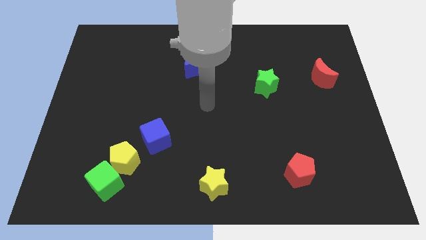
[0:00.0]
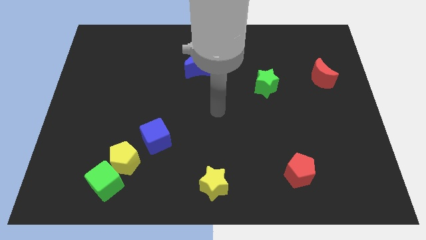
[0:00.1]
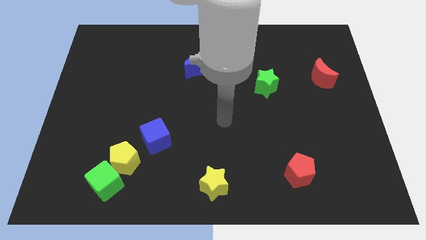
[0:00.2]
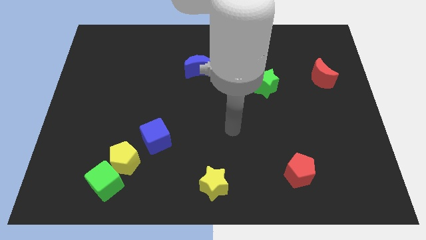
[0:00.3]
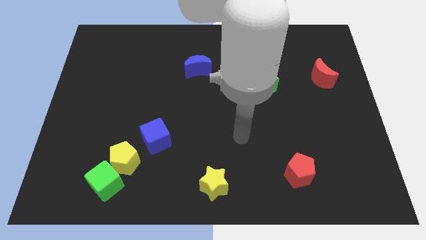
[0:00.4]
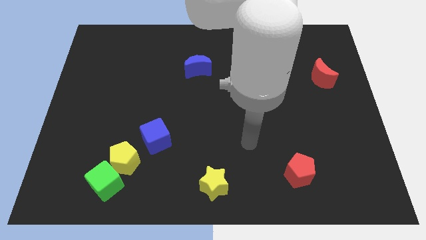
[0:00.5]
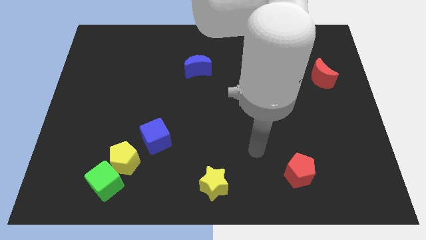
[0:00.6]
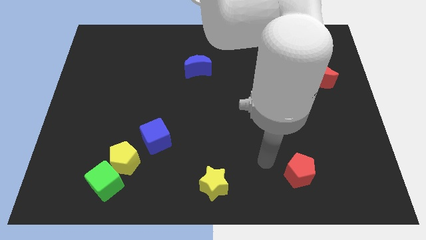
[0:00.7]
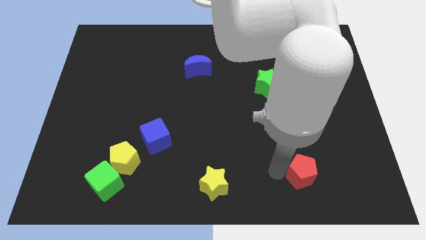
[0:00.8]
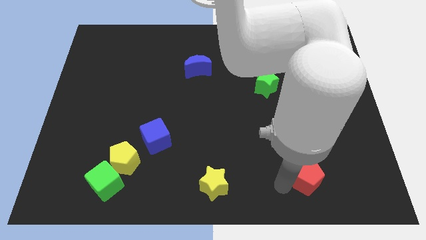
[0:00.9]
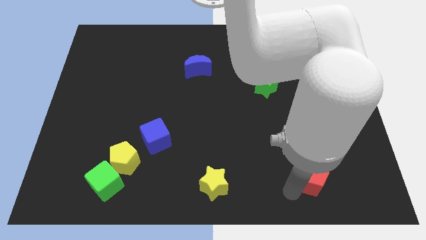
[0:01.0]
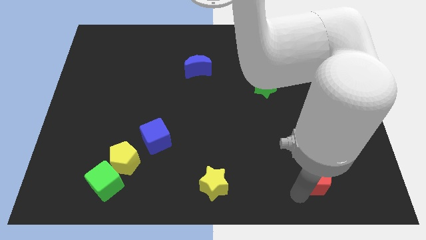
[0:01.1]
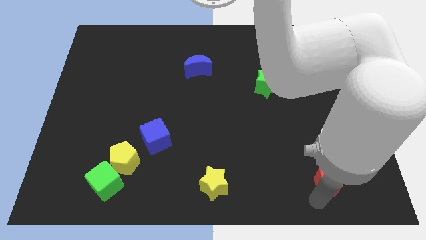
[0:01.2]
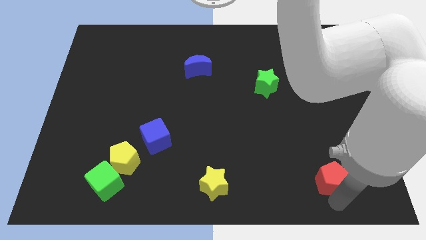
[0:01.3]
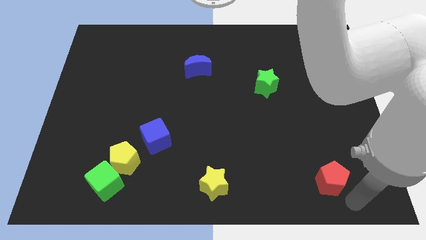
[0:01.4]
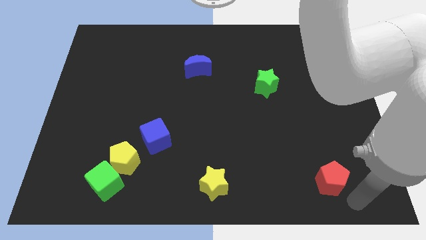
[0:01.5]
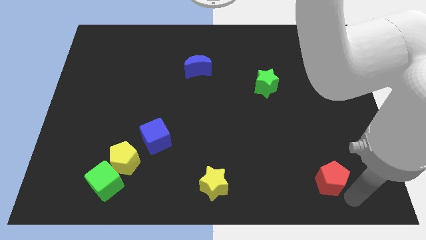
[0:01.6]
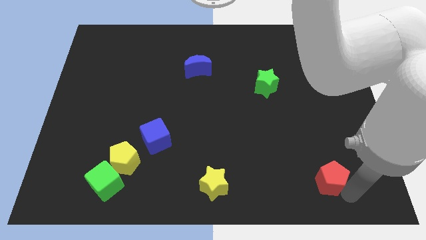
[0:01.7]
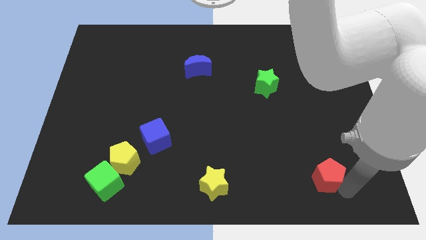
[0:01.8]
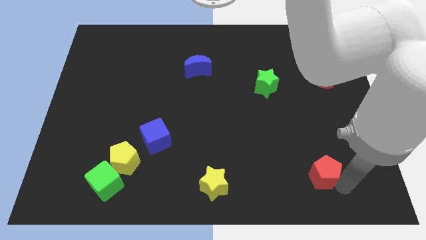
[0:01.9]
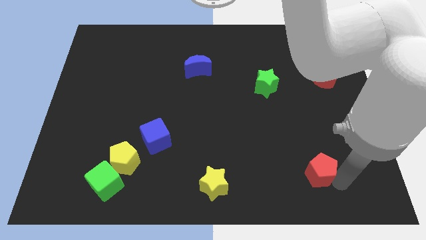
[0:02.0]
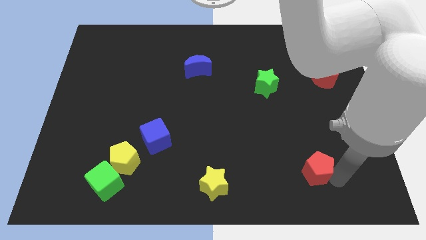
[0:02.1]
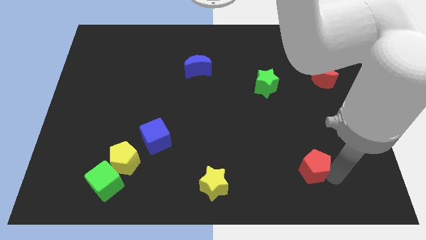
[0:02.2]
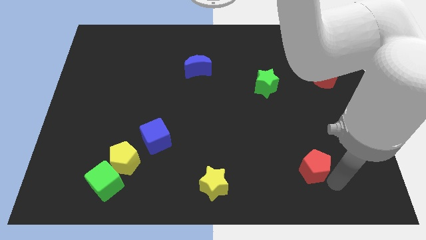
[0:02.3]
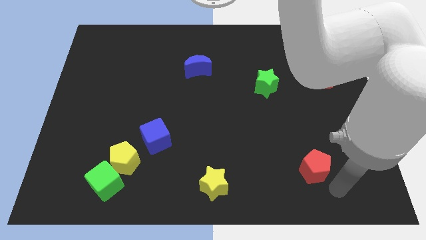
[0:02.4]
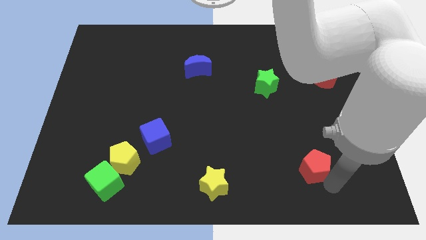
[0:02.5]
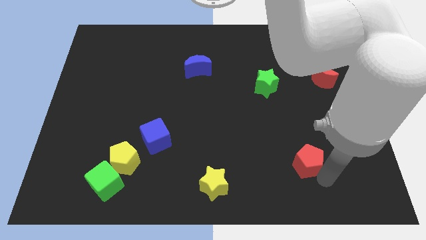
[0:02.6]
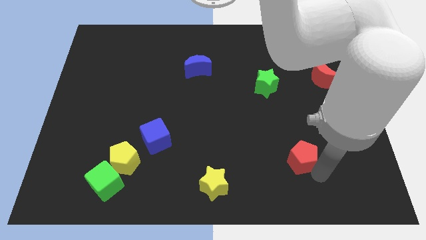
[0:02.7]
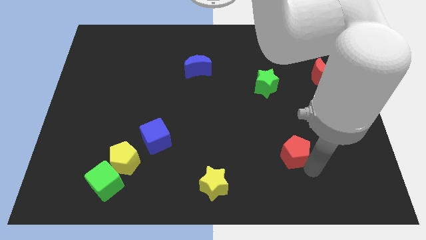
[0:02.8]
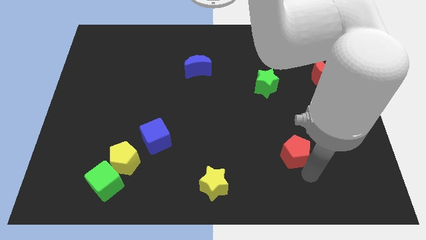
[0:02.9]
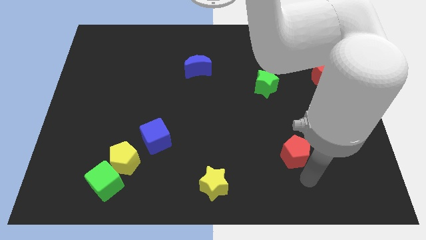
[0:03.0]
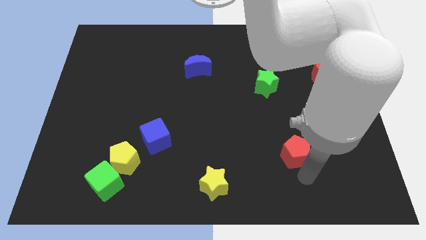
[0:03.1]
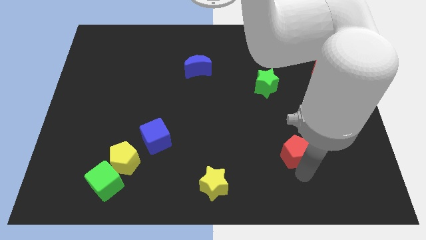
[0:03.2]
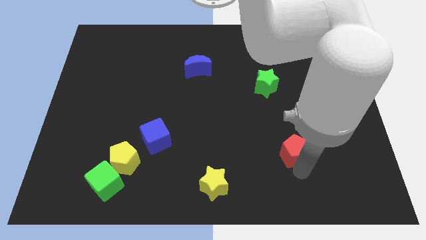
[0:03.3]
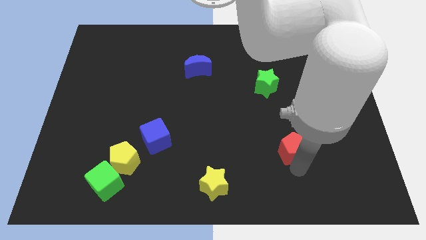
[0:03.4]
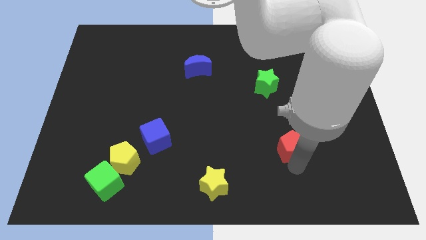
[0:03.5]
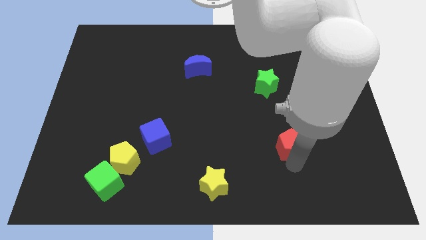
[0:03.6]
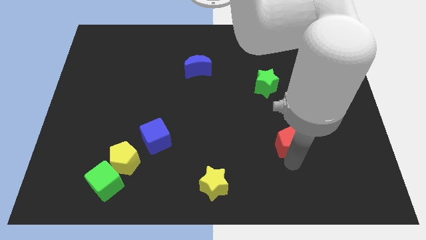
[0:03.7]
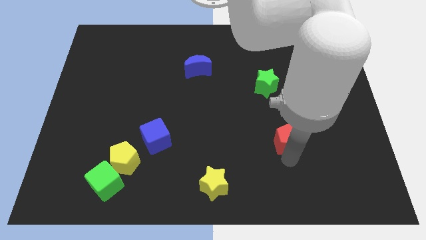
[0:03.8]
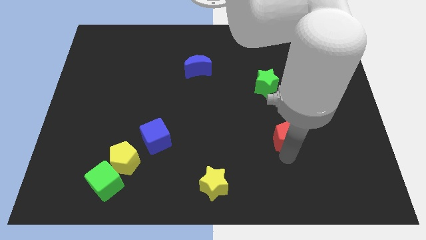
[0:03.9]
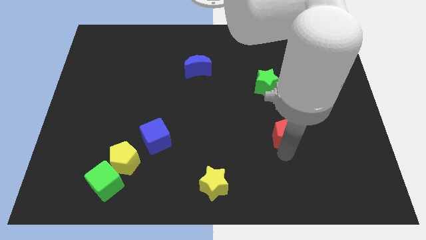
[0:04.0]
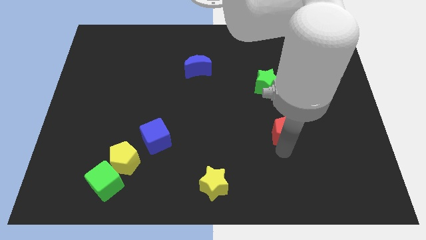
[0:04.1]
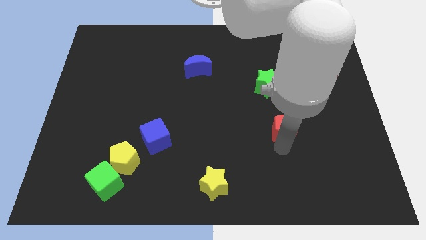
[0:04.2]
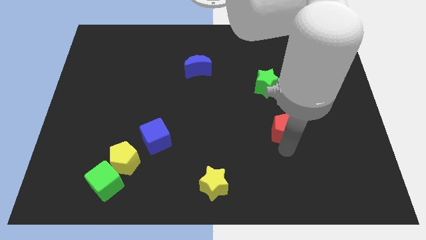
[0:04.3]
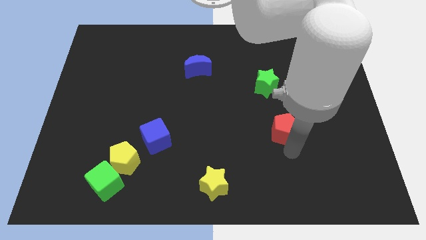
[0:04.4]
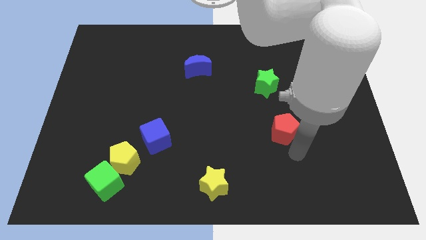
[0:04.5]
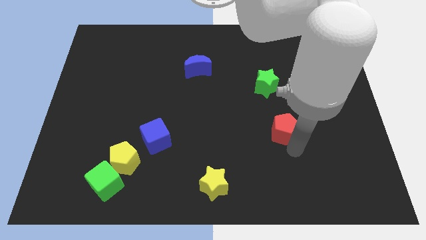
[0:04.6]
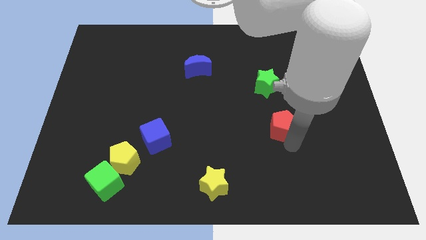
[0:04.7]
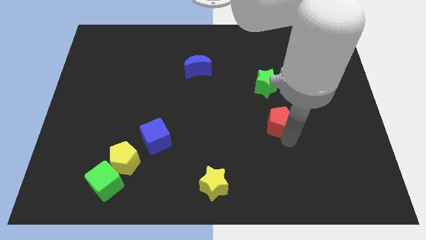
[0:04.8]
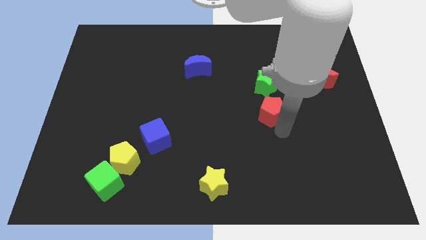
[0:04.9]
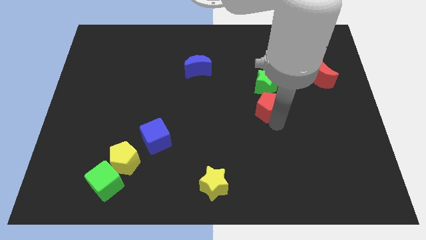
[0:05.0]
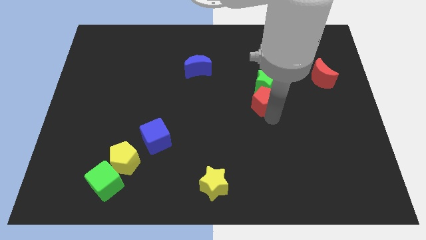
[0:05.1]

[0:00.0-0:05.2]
push the red pentagon towards the green star

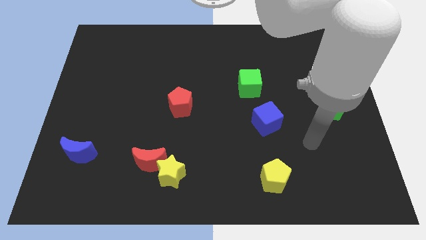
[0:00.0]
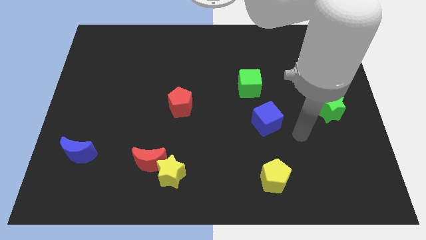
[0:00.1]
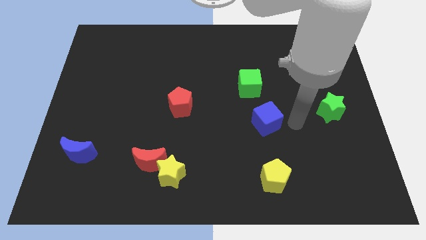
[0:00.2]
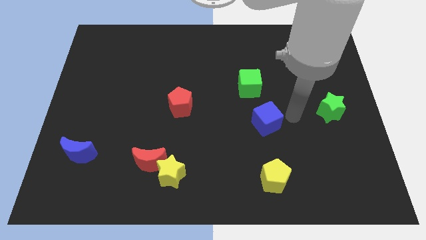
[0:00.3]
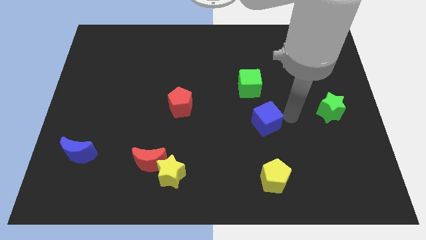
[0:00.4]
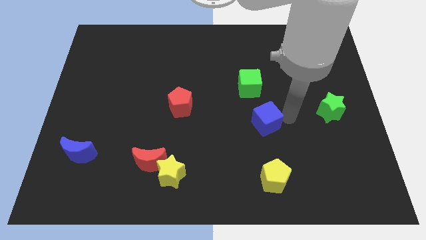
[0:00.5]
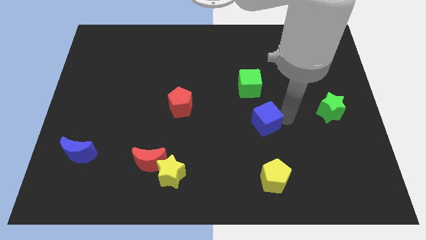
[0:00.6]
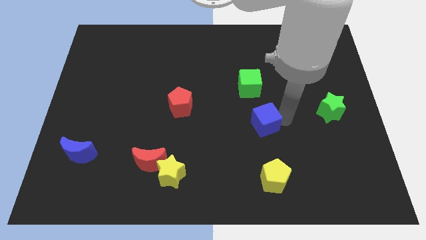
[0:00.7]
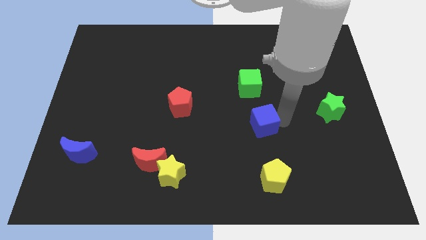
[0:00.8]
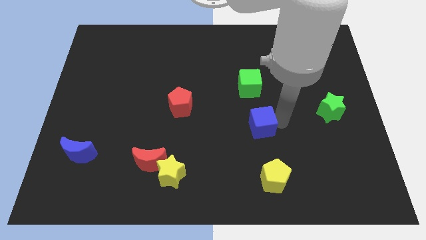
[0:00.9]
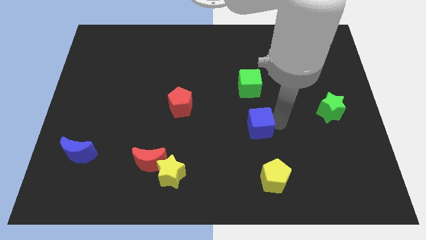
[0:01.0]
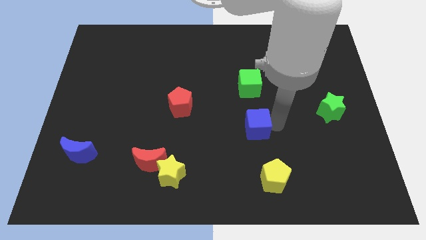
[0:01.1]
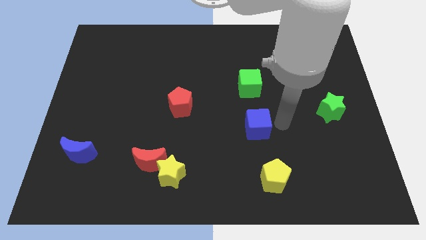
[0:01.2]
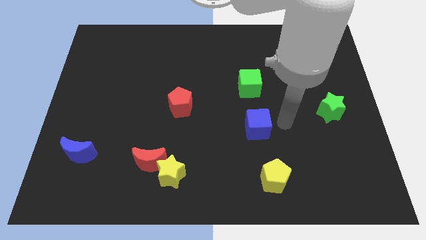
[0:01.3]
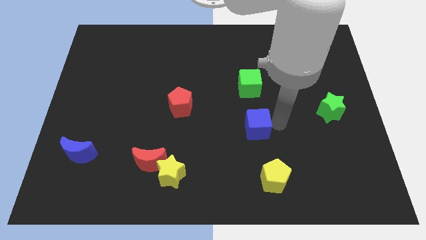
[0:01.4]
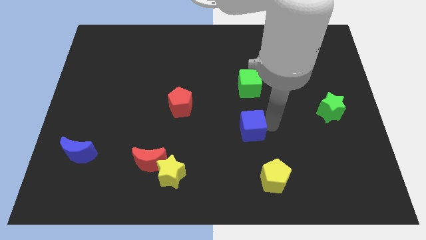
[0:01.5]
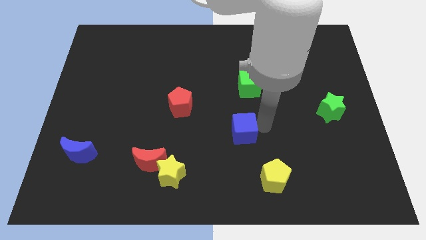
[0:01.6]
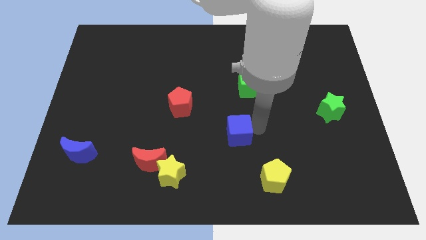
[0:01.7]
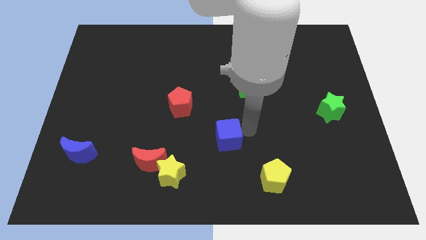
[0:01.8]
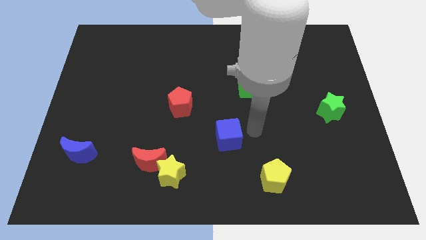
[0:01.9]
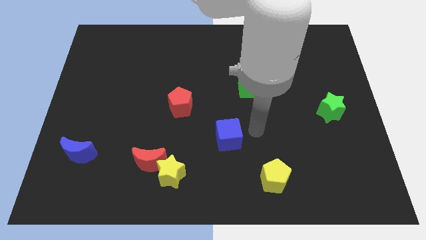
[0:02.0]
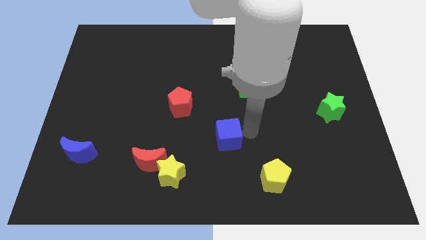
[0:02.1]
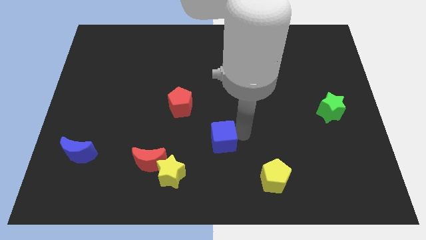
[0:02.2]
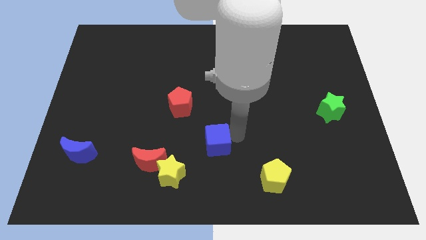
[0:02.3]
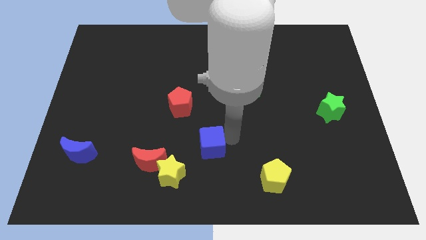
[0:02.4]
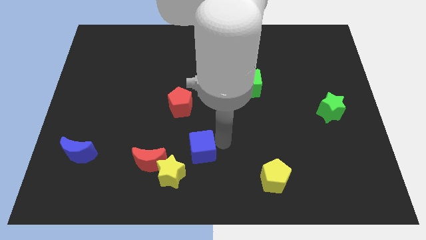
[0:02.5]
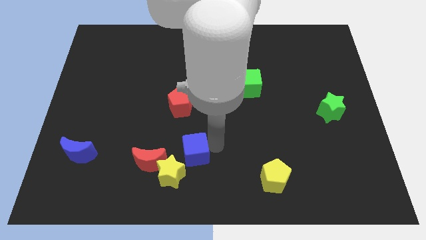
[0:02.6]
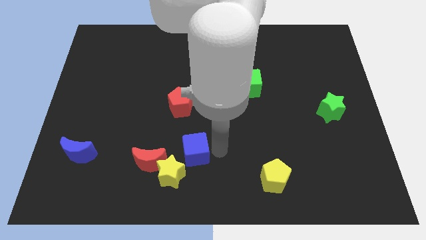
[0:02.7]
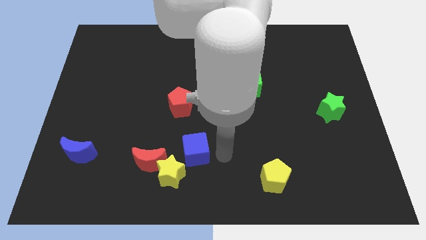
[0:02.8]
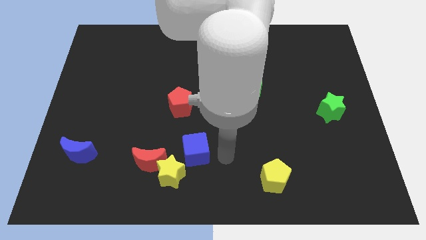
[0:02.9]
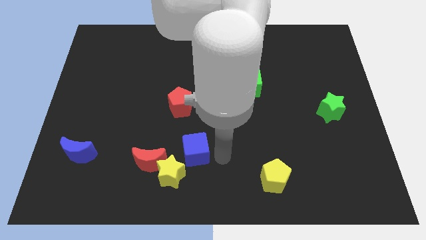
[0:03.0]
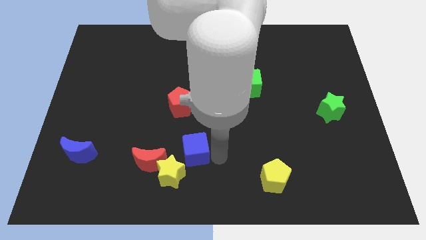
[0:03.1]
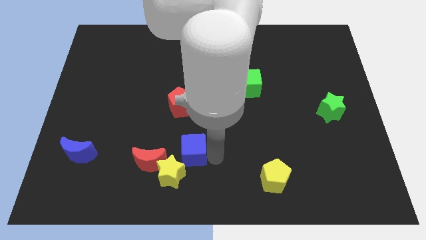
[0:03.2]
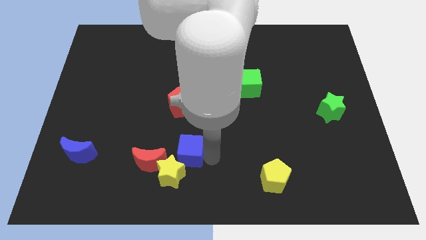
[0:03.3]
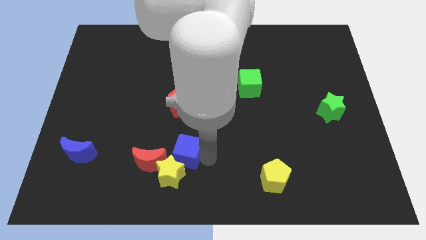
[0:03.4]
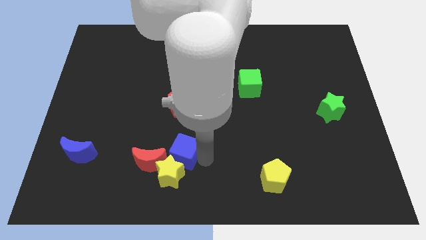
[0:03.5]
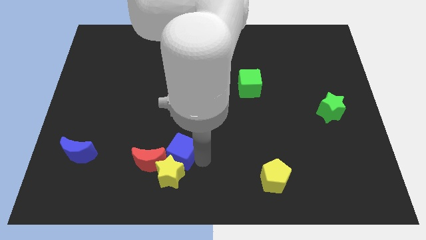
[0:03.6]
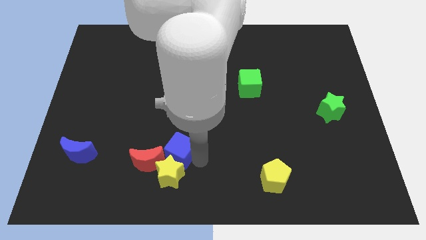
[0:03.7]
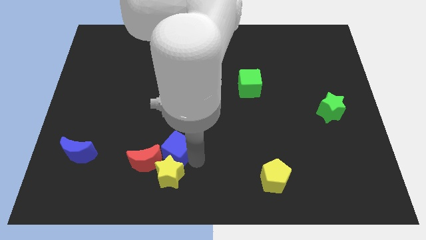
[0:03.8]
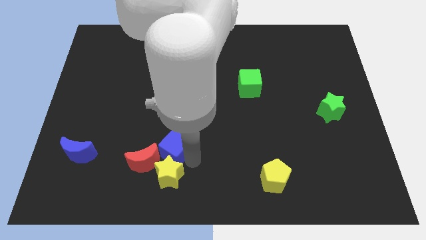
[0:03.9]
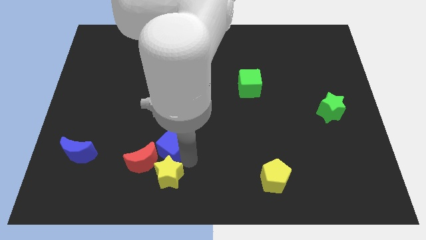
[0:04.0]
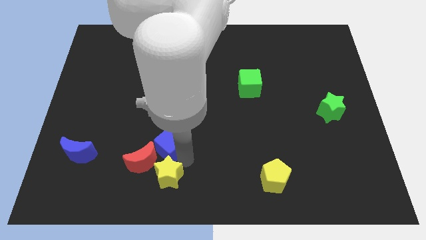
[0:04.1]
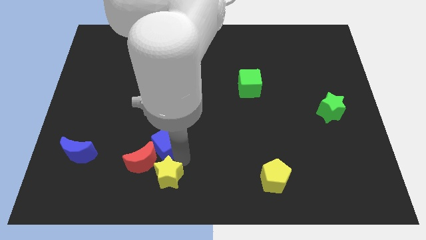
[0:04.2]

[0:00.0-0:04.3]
slide the blue cube to the red moon
